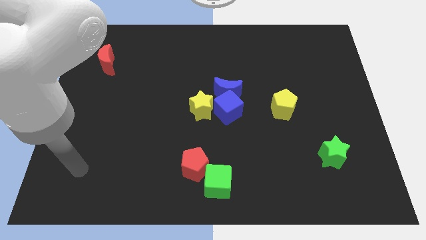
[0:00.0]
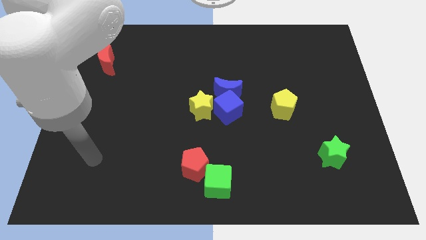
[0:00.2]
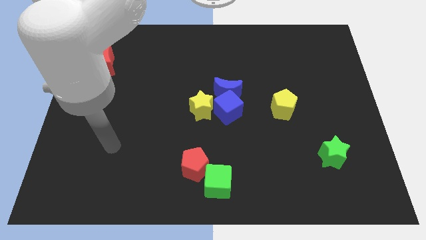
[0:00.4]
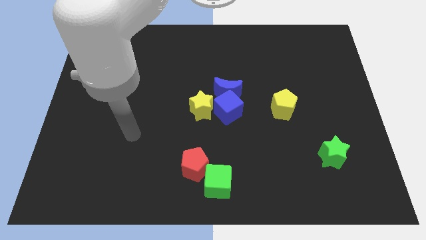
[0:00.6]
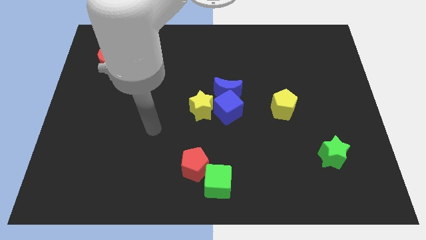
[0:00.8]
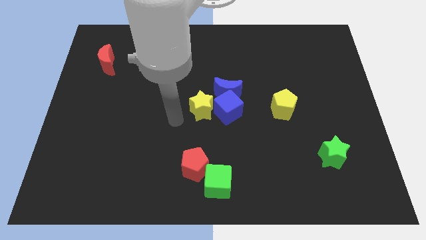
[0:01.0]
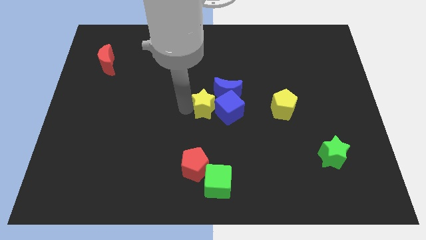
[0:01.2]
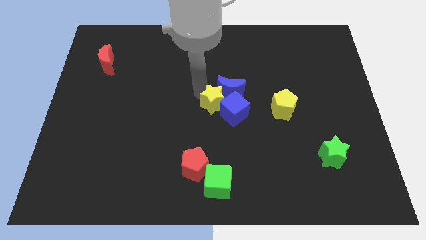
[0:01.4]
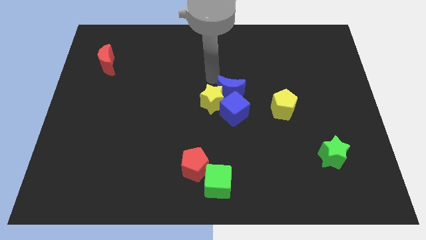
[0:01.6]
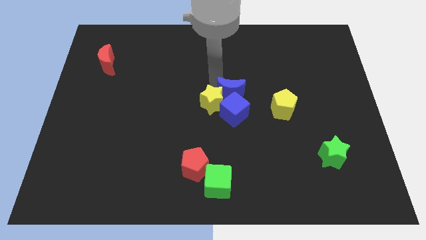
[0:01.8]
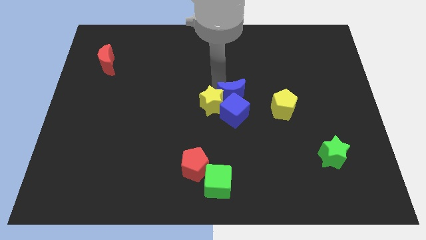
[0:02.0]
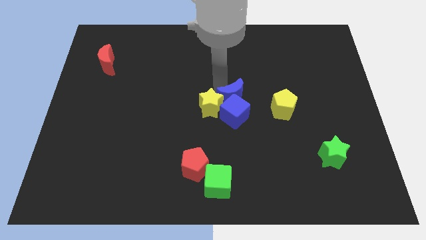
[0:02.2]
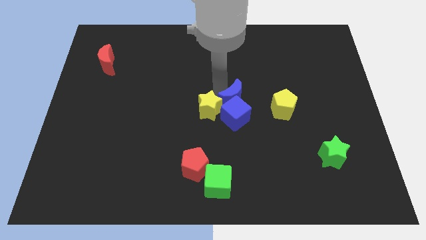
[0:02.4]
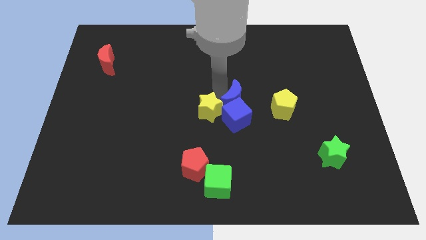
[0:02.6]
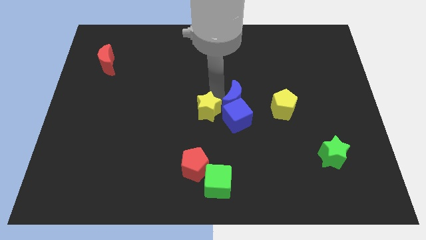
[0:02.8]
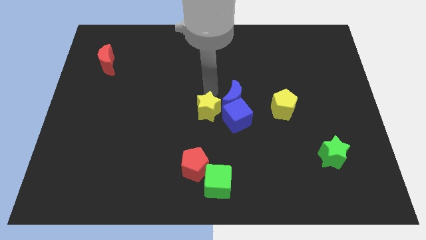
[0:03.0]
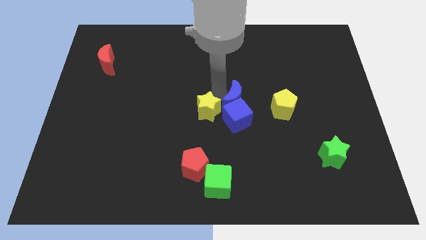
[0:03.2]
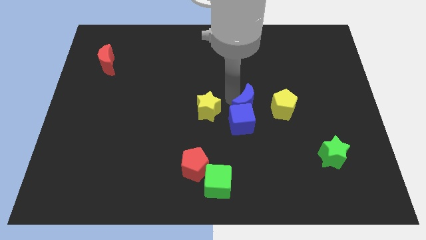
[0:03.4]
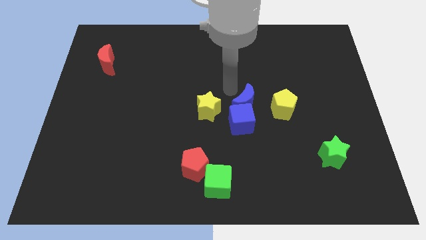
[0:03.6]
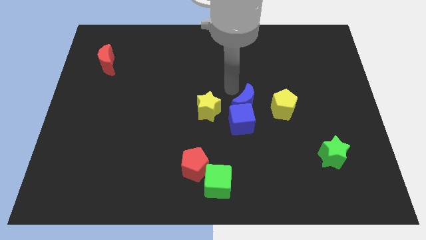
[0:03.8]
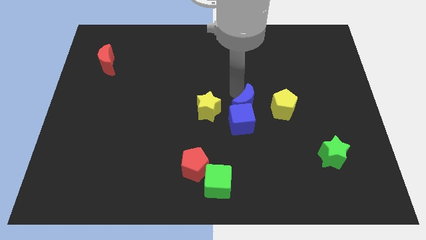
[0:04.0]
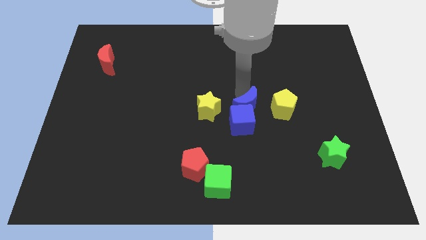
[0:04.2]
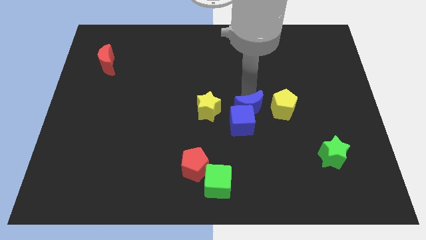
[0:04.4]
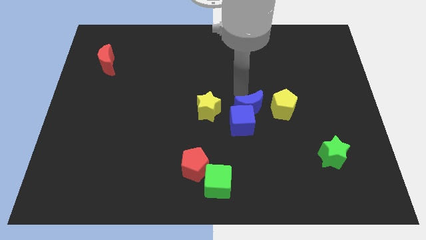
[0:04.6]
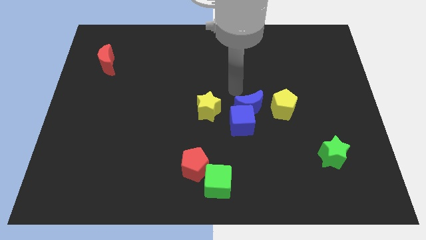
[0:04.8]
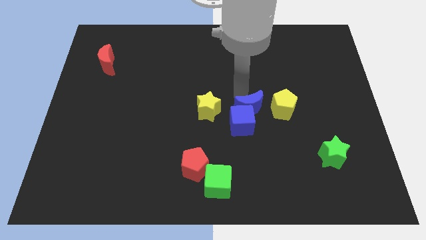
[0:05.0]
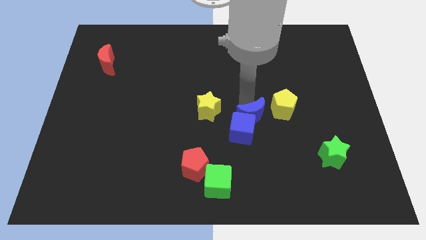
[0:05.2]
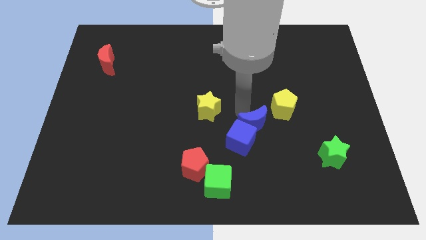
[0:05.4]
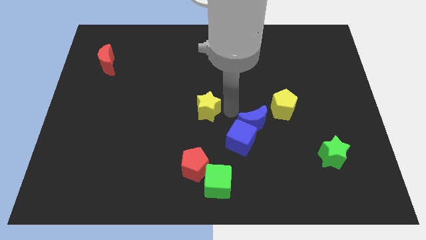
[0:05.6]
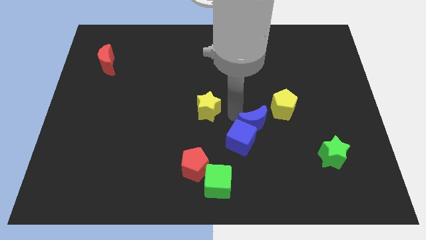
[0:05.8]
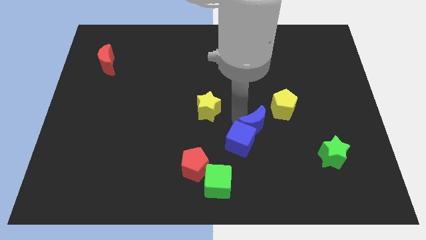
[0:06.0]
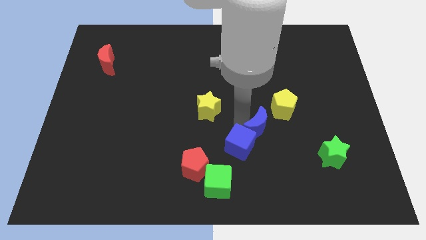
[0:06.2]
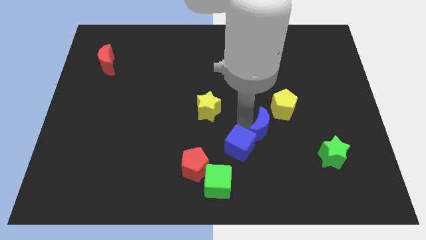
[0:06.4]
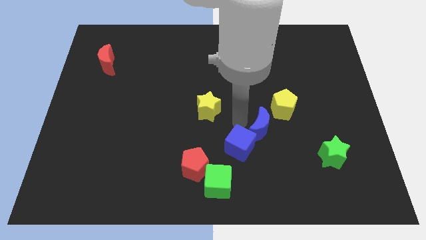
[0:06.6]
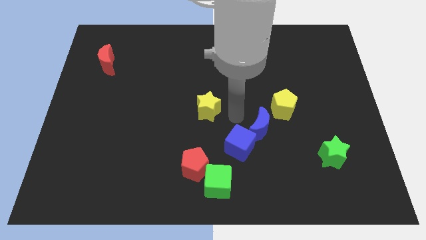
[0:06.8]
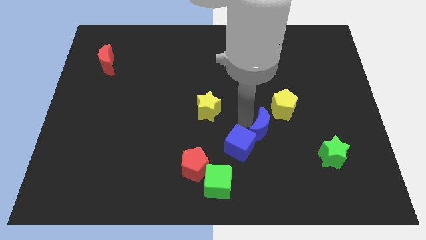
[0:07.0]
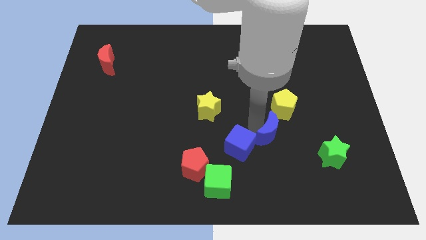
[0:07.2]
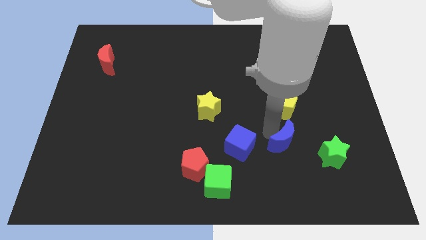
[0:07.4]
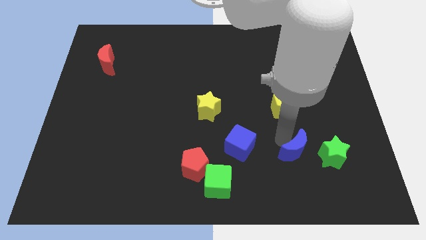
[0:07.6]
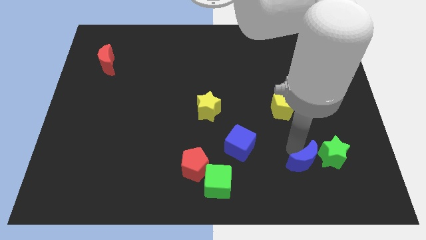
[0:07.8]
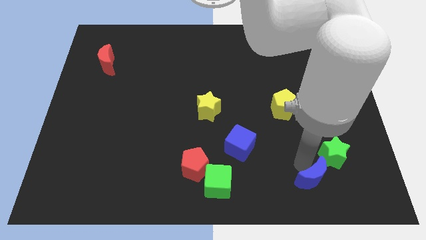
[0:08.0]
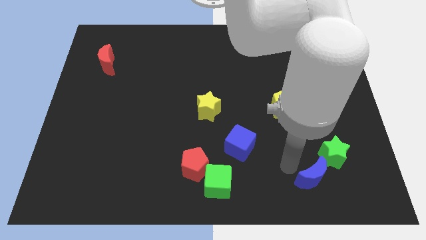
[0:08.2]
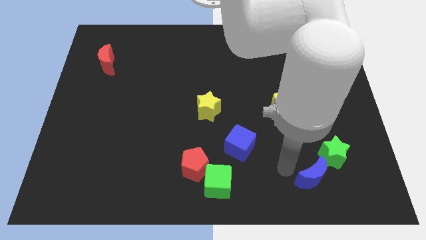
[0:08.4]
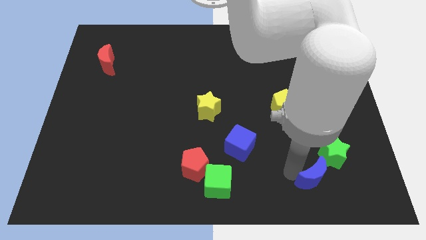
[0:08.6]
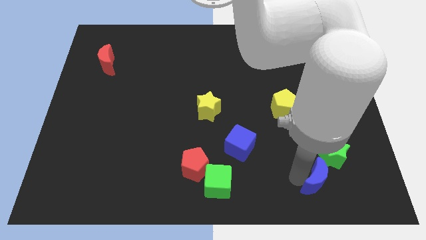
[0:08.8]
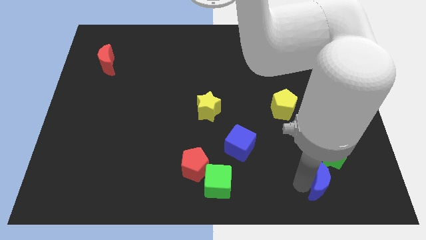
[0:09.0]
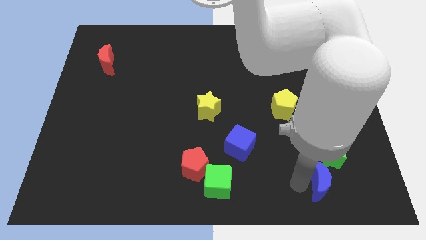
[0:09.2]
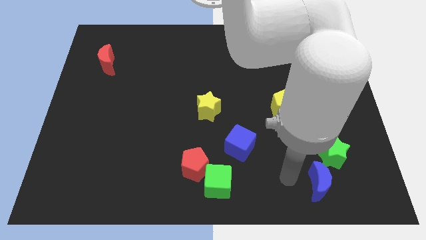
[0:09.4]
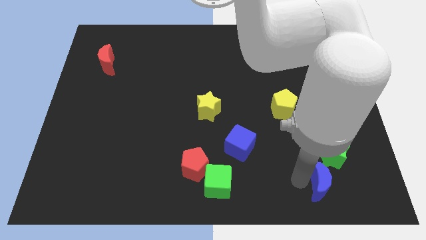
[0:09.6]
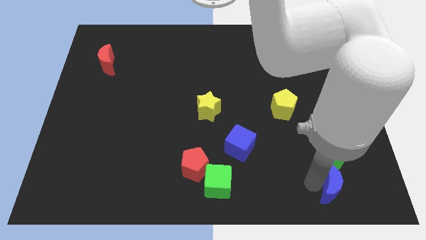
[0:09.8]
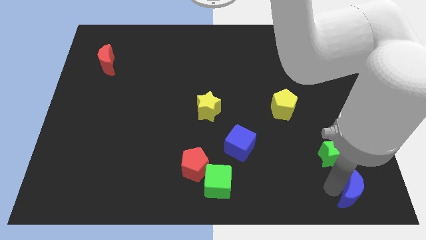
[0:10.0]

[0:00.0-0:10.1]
push the blue moon to the lower right corner

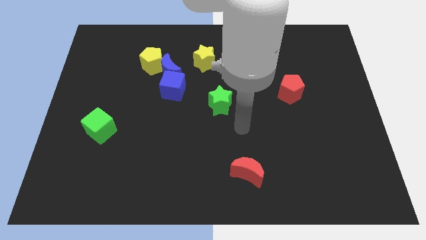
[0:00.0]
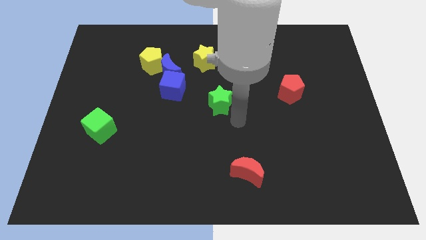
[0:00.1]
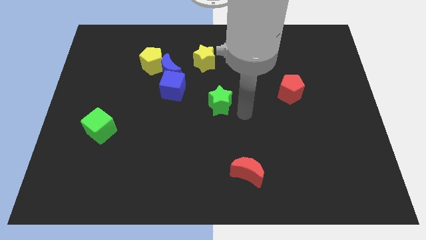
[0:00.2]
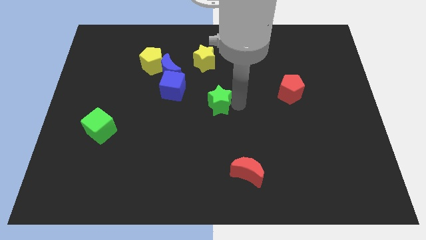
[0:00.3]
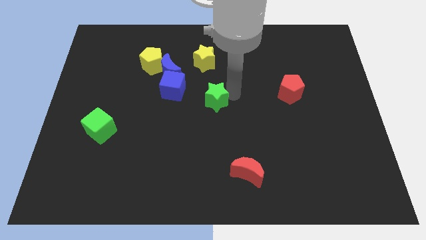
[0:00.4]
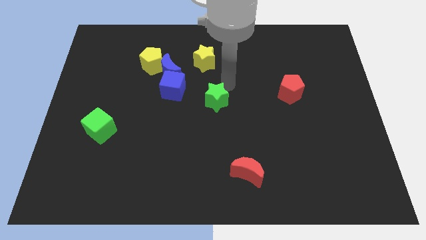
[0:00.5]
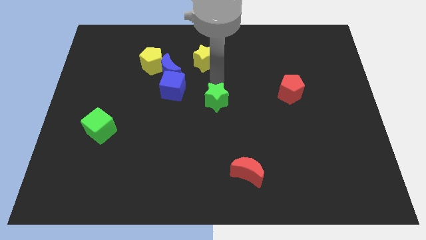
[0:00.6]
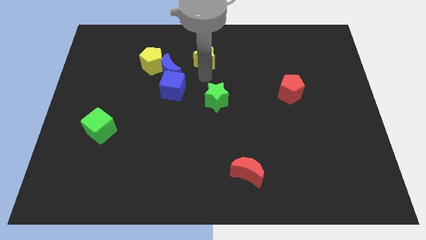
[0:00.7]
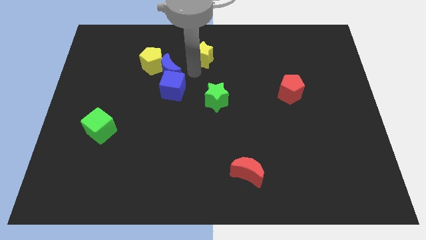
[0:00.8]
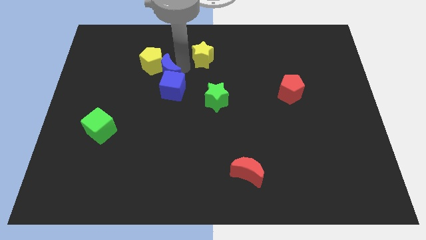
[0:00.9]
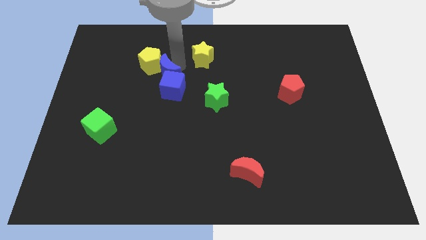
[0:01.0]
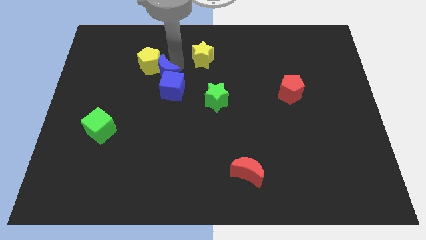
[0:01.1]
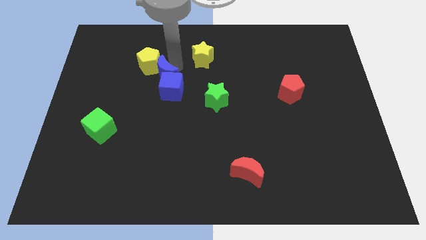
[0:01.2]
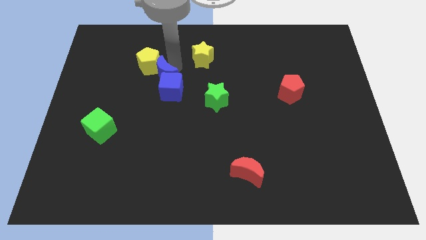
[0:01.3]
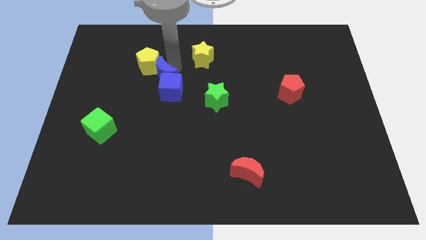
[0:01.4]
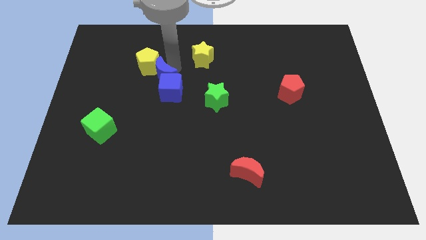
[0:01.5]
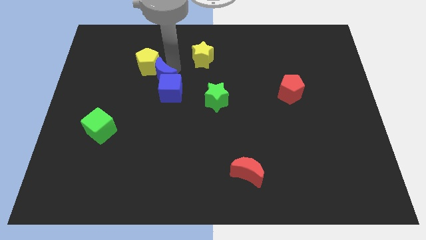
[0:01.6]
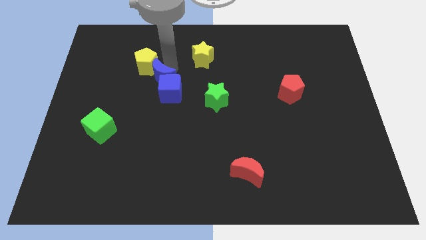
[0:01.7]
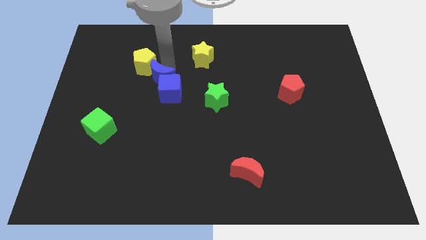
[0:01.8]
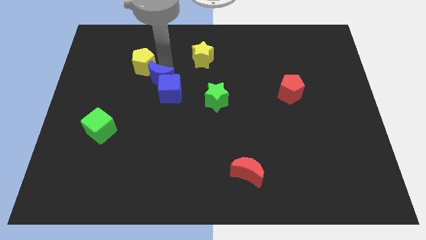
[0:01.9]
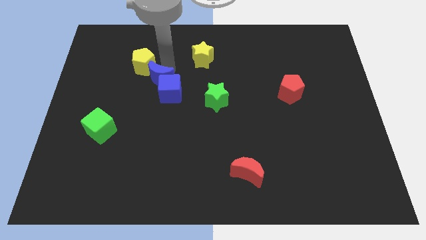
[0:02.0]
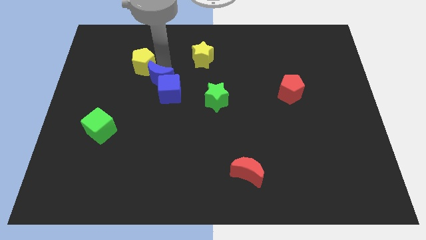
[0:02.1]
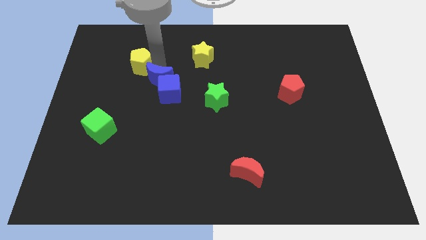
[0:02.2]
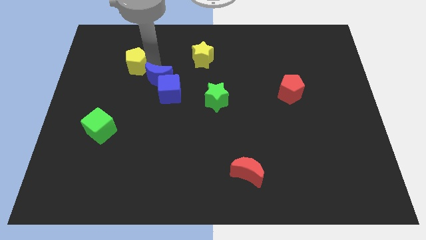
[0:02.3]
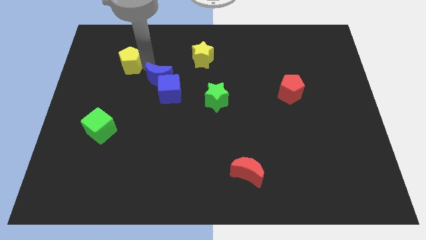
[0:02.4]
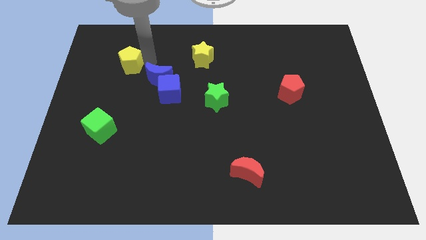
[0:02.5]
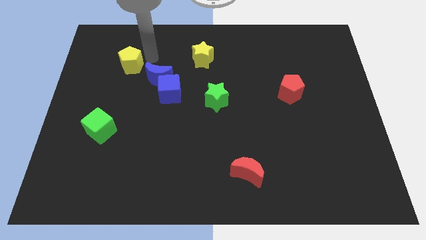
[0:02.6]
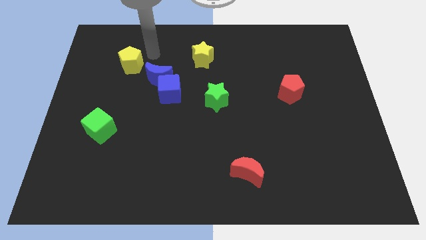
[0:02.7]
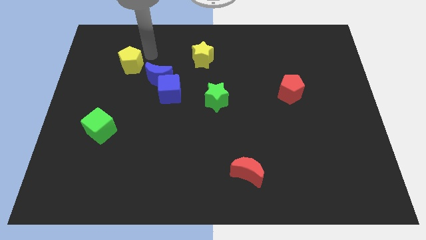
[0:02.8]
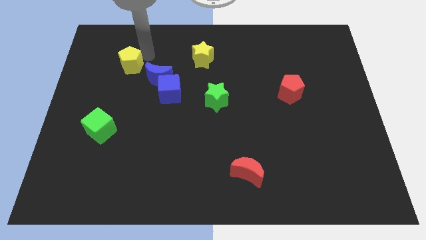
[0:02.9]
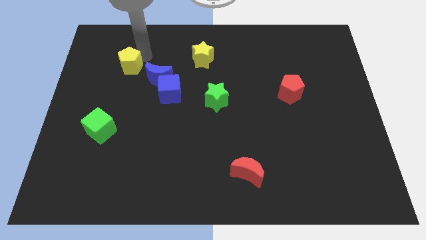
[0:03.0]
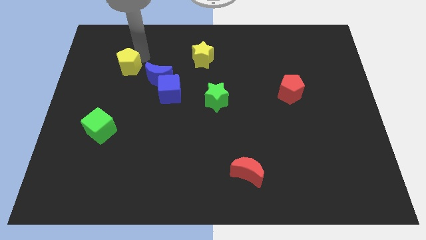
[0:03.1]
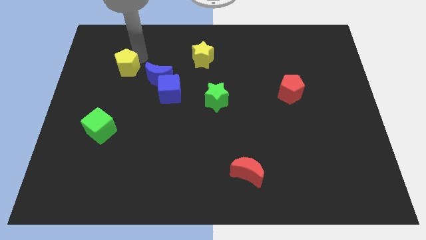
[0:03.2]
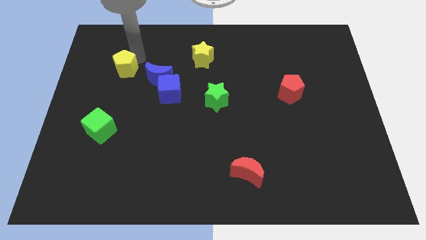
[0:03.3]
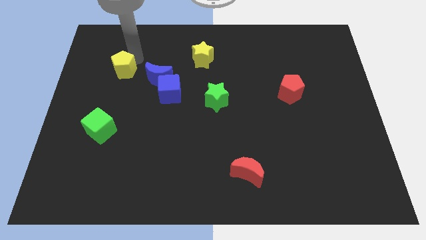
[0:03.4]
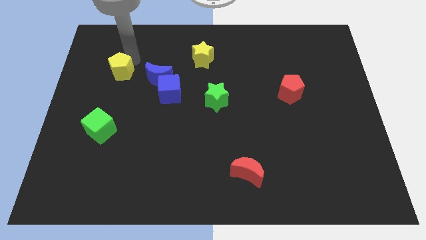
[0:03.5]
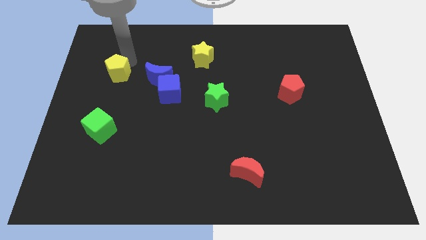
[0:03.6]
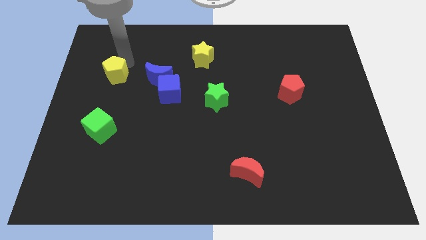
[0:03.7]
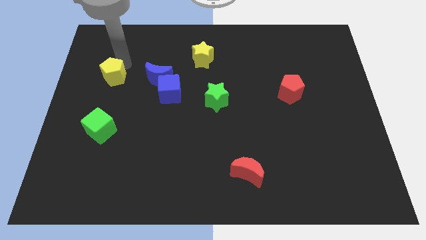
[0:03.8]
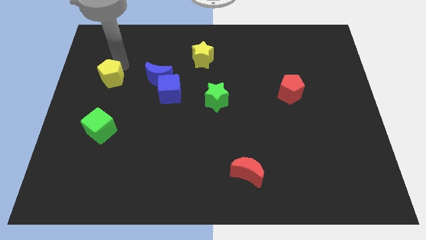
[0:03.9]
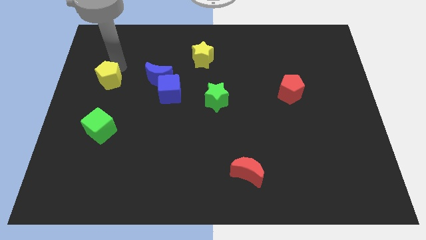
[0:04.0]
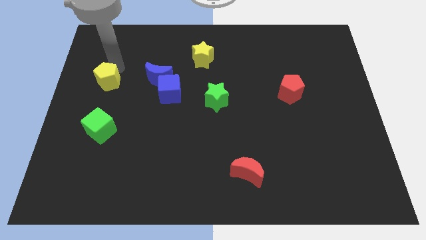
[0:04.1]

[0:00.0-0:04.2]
slide the yellow pentagon to the left side
